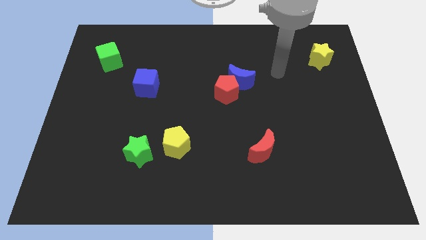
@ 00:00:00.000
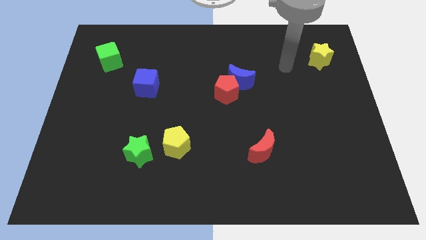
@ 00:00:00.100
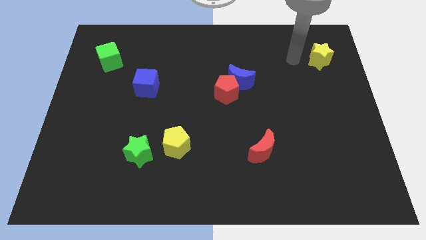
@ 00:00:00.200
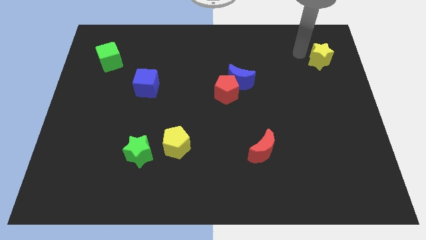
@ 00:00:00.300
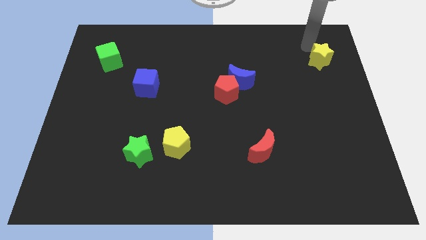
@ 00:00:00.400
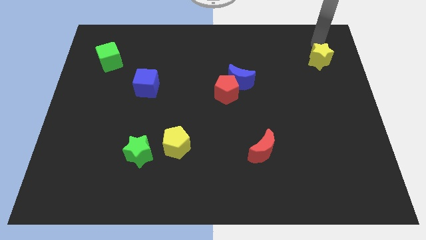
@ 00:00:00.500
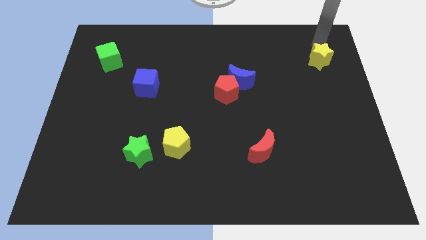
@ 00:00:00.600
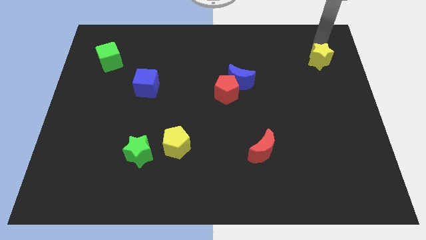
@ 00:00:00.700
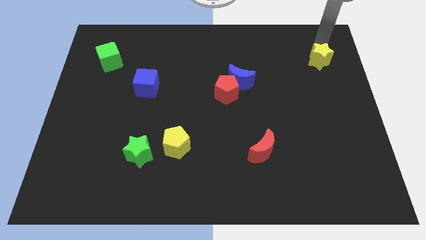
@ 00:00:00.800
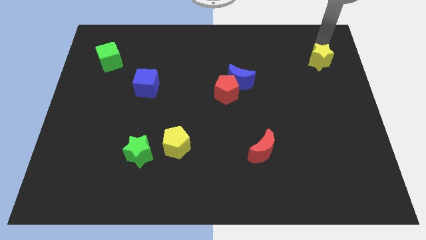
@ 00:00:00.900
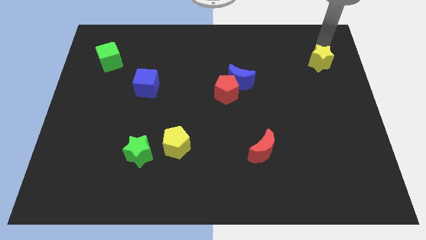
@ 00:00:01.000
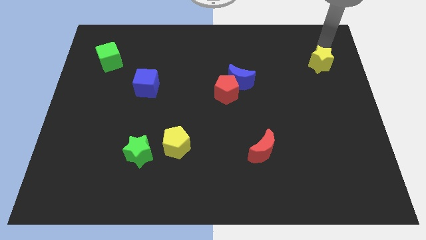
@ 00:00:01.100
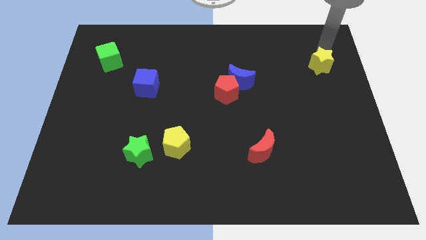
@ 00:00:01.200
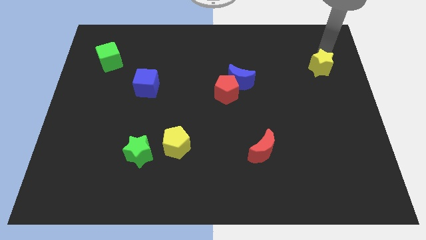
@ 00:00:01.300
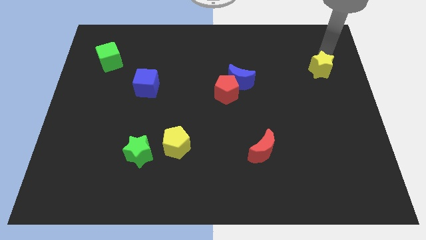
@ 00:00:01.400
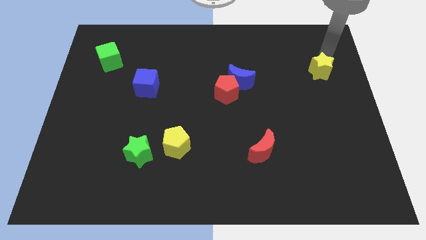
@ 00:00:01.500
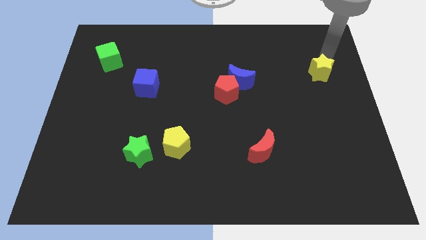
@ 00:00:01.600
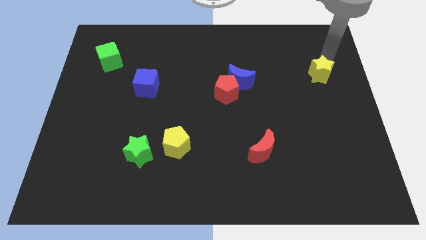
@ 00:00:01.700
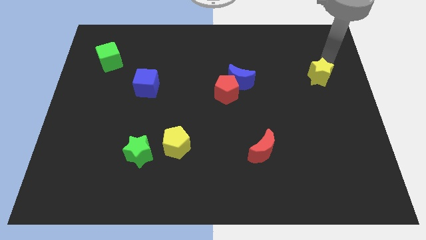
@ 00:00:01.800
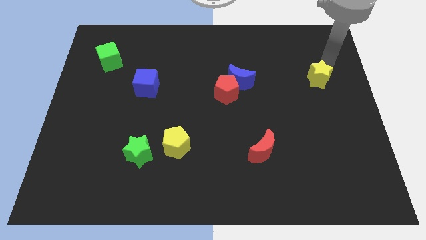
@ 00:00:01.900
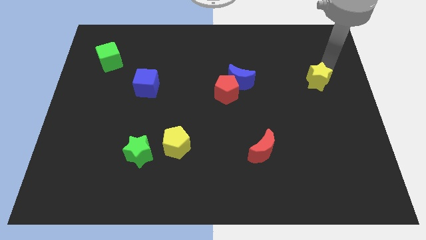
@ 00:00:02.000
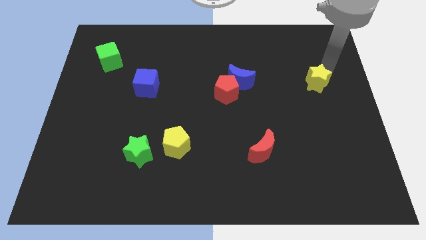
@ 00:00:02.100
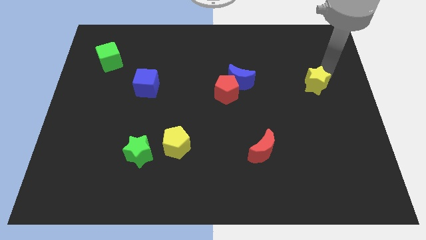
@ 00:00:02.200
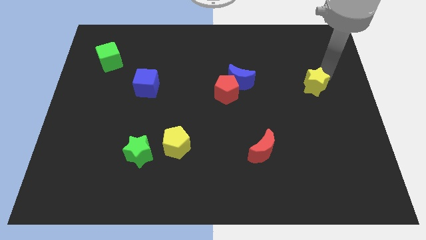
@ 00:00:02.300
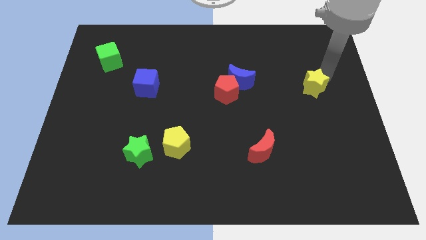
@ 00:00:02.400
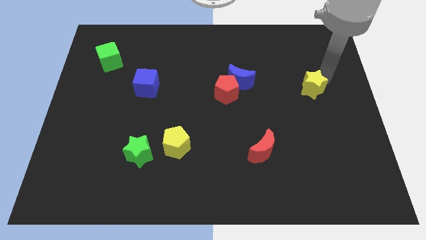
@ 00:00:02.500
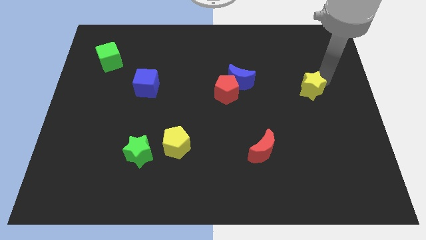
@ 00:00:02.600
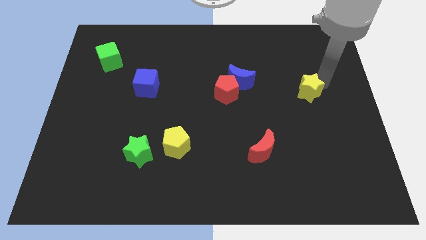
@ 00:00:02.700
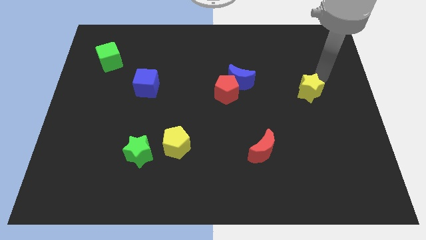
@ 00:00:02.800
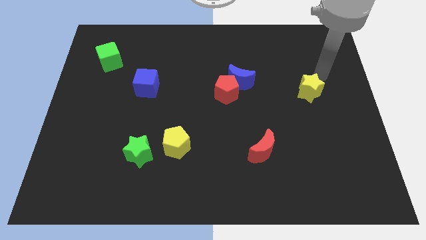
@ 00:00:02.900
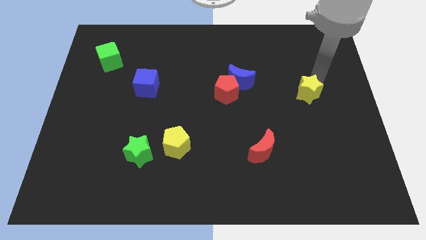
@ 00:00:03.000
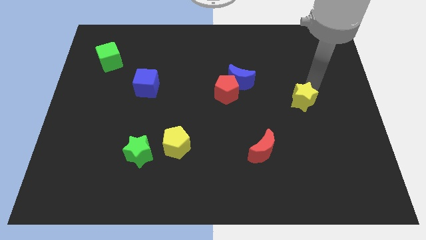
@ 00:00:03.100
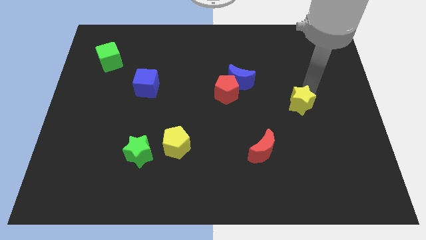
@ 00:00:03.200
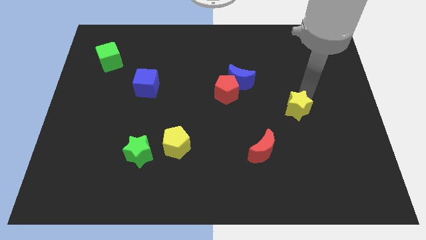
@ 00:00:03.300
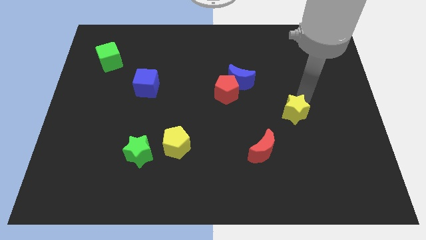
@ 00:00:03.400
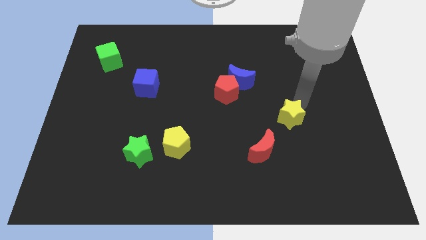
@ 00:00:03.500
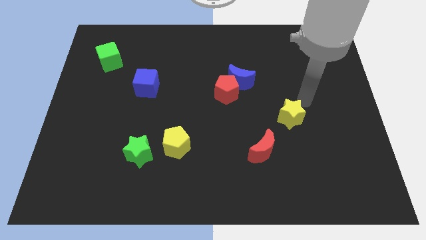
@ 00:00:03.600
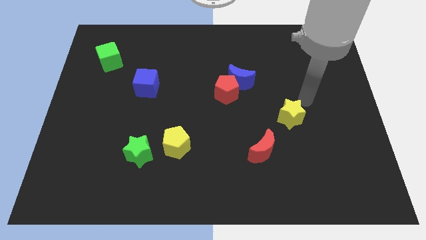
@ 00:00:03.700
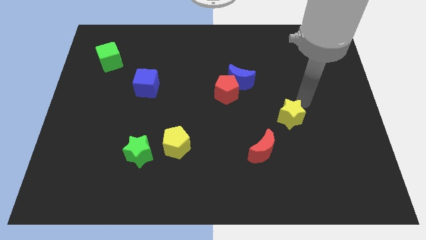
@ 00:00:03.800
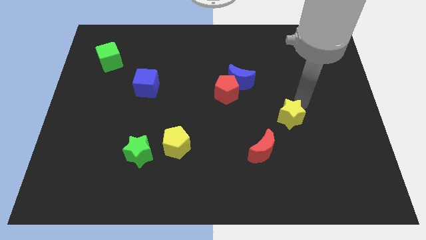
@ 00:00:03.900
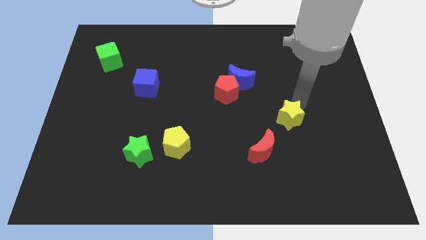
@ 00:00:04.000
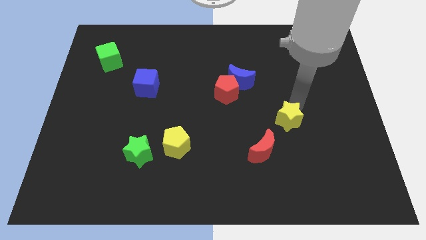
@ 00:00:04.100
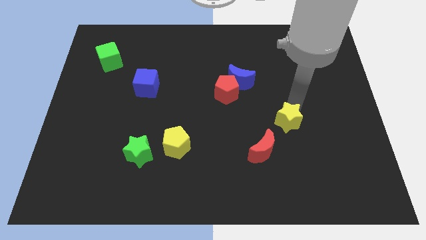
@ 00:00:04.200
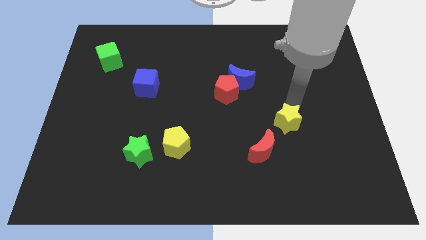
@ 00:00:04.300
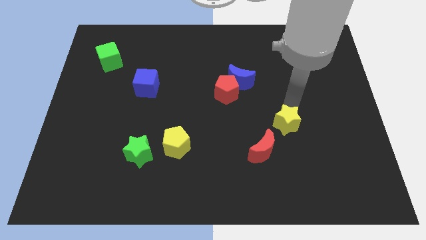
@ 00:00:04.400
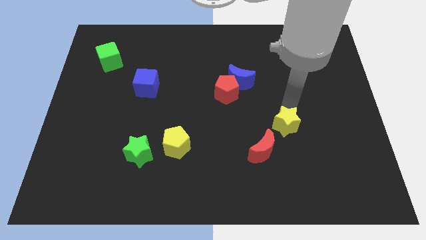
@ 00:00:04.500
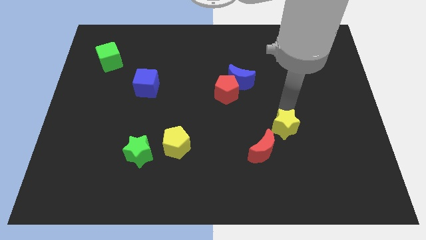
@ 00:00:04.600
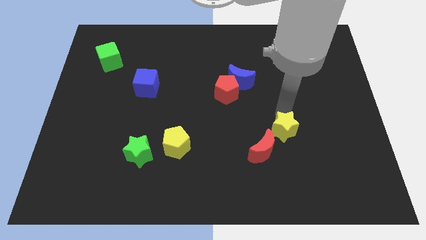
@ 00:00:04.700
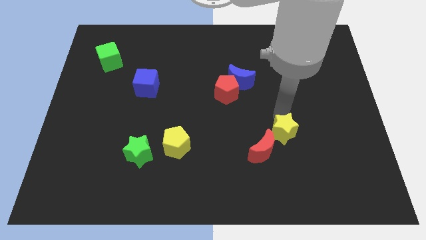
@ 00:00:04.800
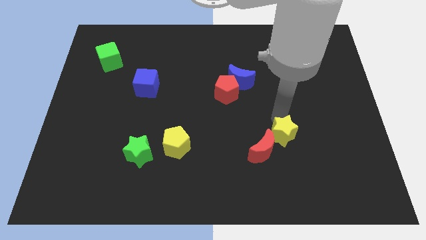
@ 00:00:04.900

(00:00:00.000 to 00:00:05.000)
move the yellow star close to the red moon

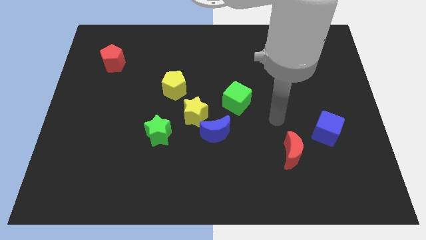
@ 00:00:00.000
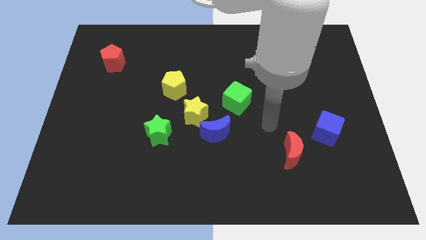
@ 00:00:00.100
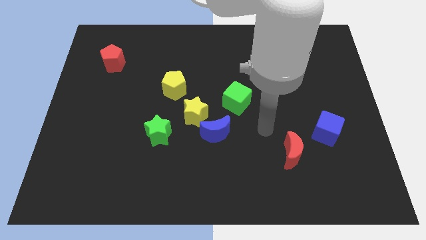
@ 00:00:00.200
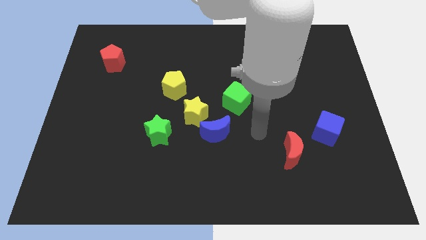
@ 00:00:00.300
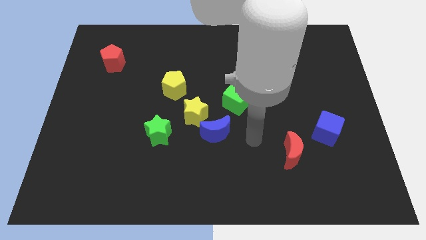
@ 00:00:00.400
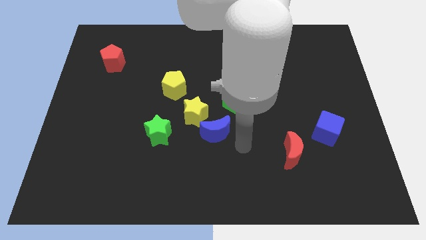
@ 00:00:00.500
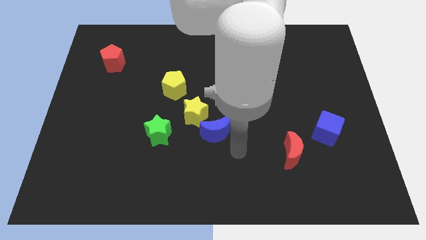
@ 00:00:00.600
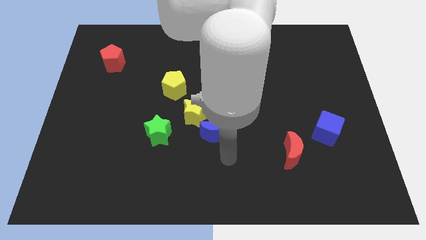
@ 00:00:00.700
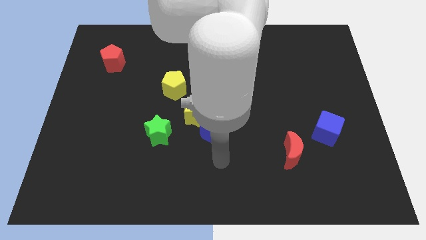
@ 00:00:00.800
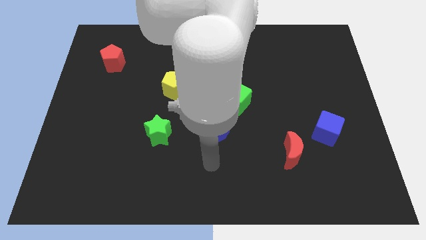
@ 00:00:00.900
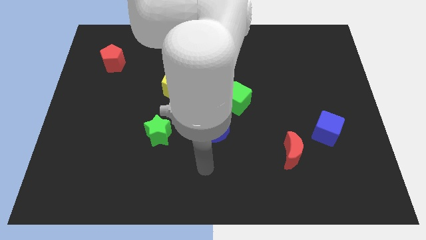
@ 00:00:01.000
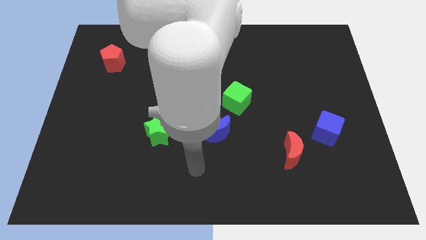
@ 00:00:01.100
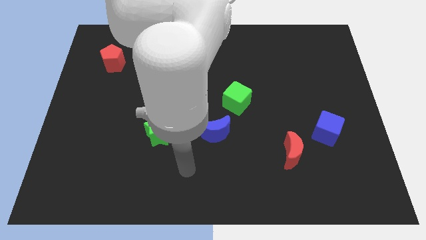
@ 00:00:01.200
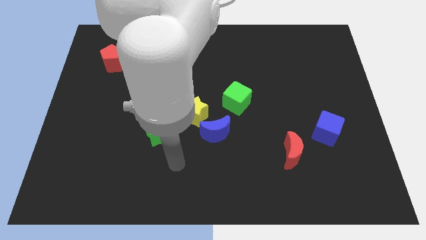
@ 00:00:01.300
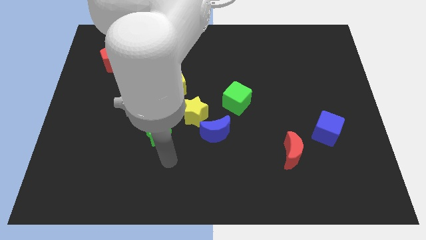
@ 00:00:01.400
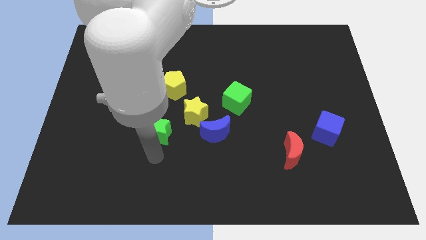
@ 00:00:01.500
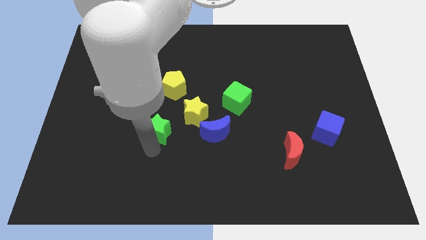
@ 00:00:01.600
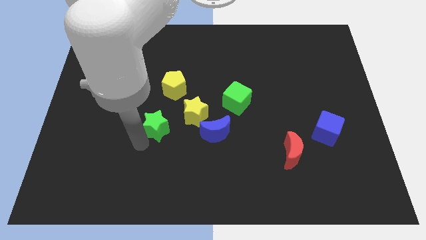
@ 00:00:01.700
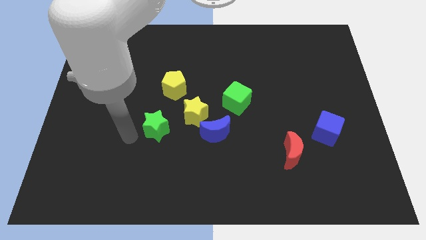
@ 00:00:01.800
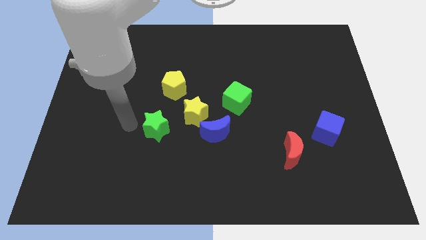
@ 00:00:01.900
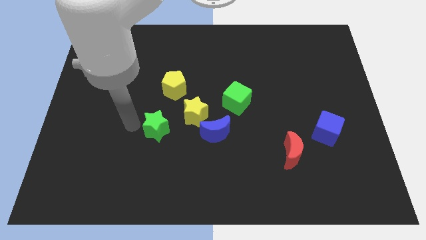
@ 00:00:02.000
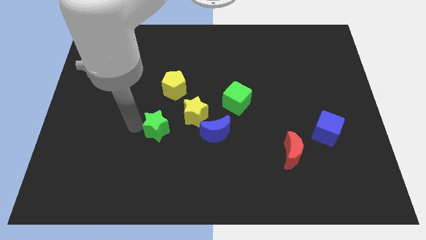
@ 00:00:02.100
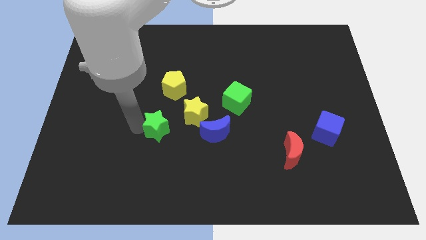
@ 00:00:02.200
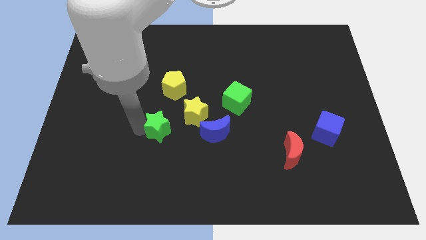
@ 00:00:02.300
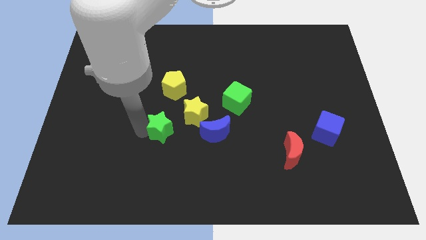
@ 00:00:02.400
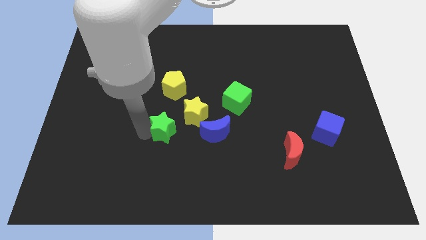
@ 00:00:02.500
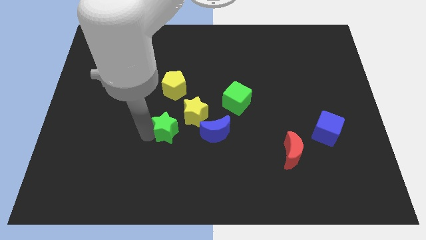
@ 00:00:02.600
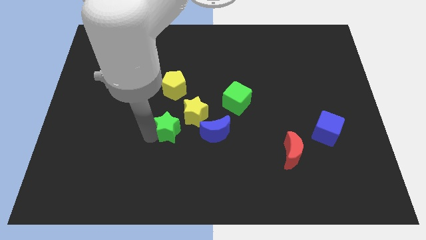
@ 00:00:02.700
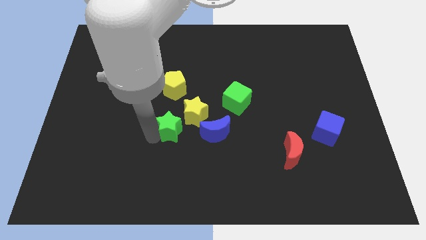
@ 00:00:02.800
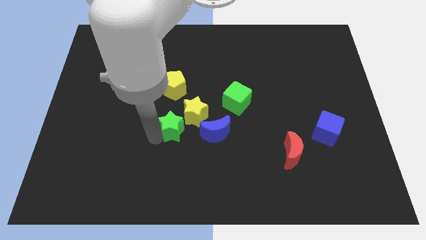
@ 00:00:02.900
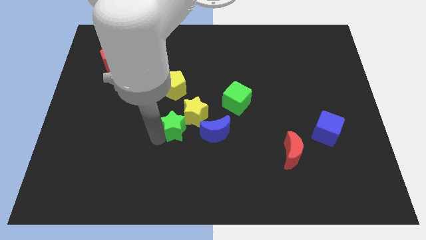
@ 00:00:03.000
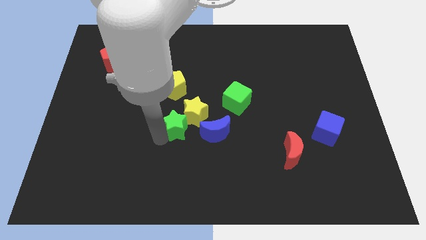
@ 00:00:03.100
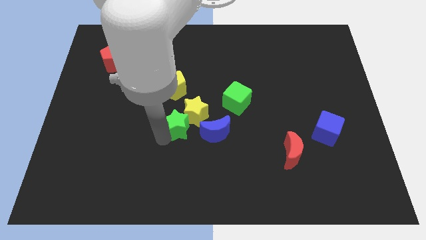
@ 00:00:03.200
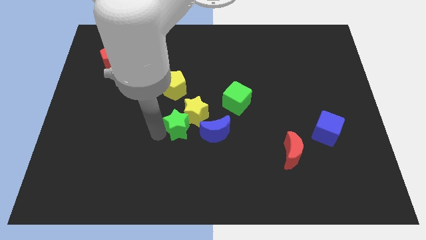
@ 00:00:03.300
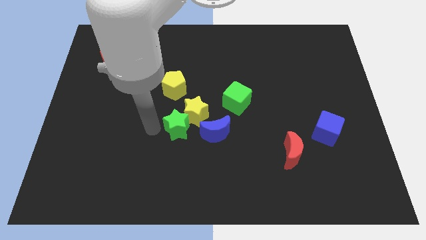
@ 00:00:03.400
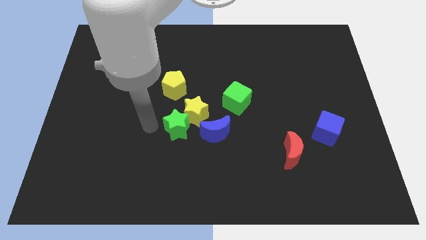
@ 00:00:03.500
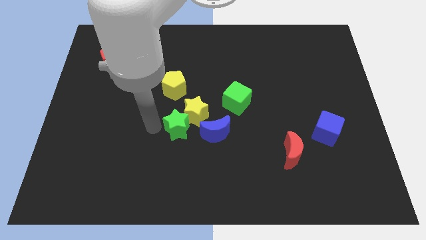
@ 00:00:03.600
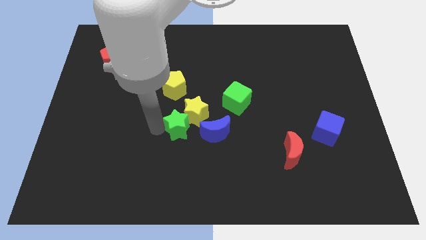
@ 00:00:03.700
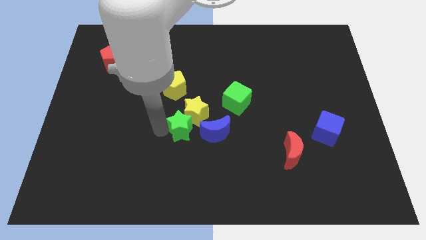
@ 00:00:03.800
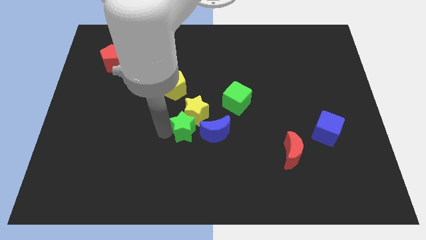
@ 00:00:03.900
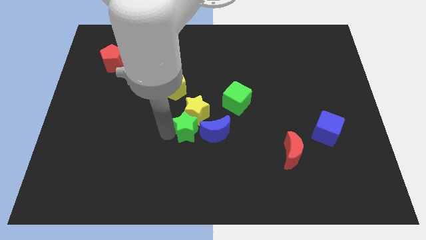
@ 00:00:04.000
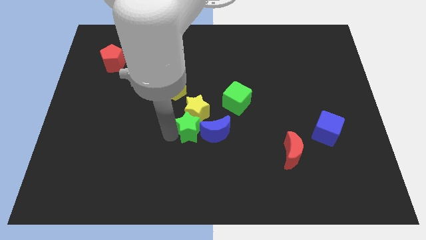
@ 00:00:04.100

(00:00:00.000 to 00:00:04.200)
push the green star next to the blue moon
